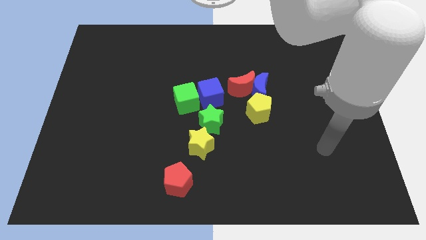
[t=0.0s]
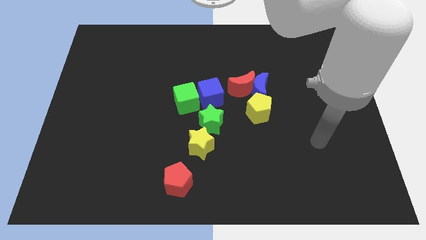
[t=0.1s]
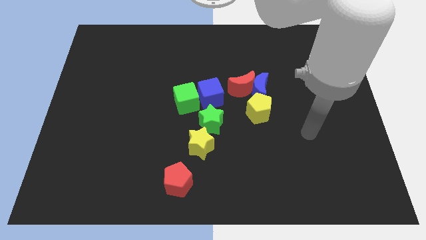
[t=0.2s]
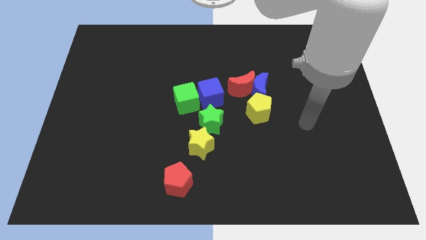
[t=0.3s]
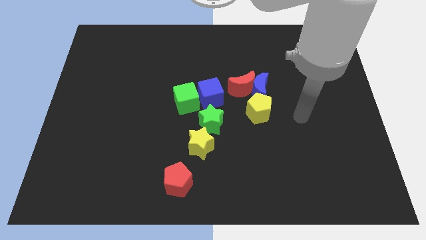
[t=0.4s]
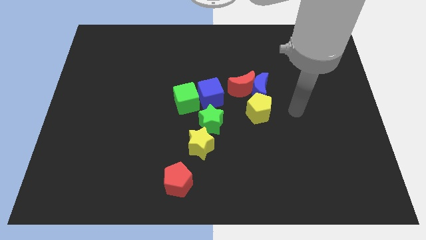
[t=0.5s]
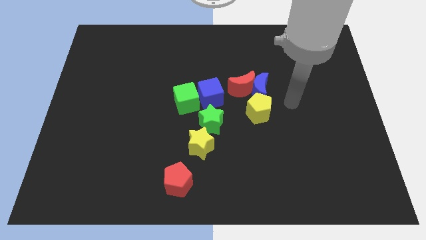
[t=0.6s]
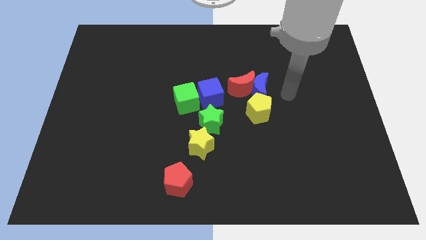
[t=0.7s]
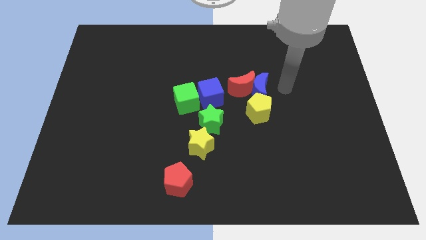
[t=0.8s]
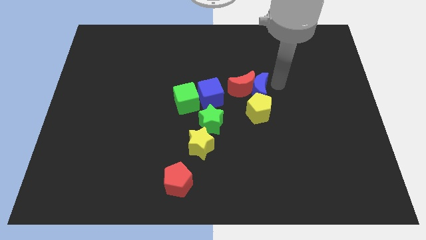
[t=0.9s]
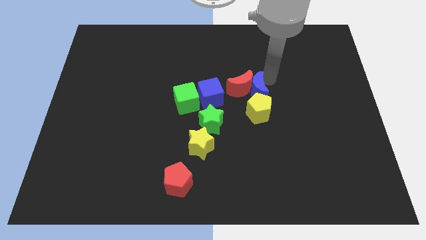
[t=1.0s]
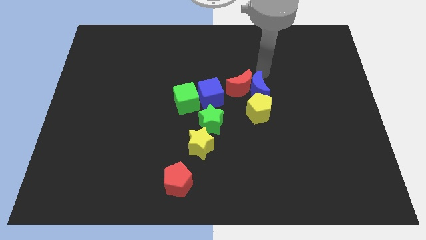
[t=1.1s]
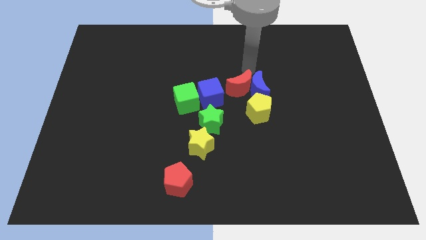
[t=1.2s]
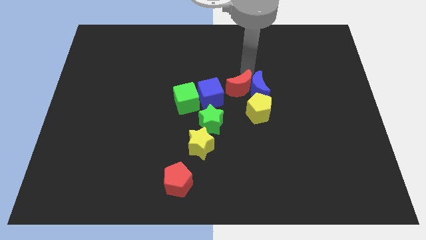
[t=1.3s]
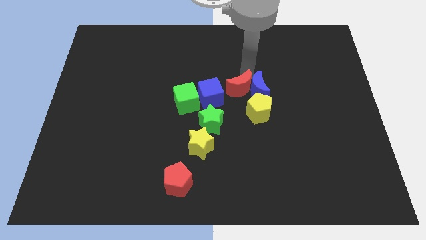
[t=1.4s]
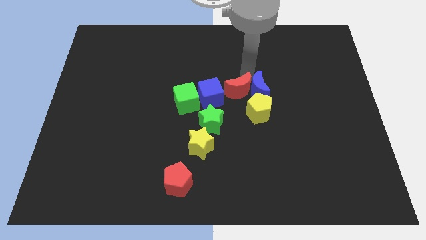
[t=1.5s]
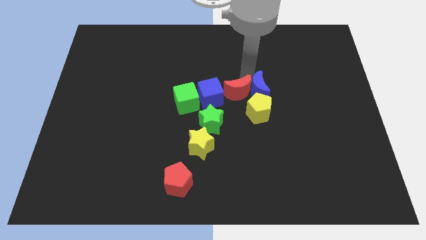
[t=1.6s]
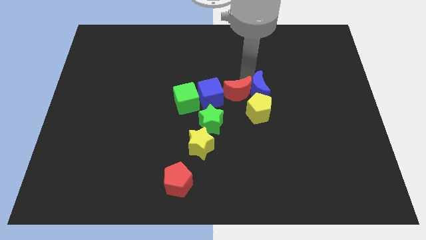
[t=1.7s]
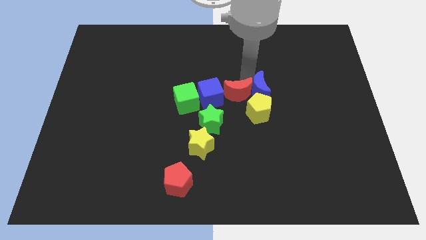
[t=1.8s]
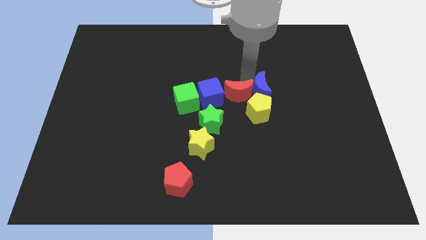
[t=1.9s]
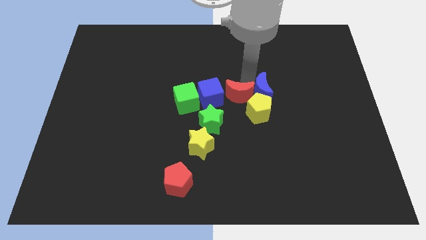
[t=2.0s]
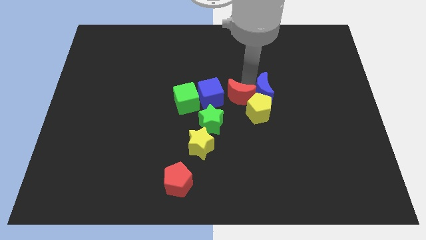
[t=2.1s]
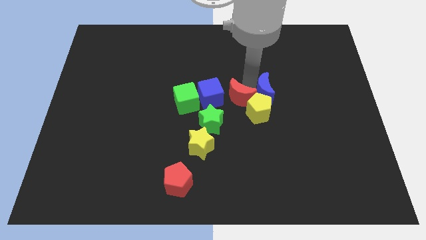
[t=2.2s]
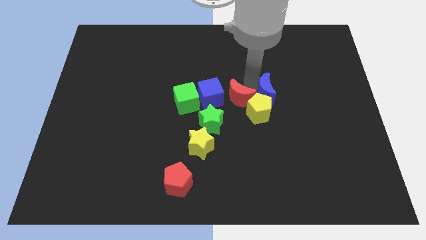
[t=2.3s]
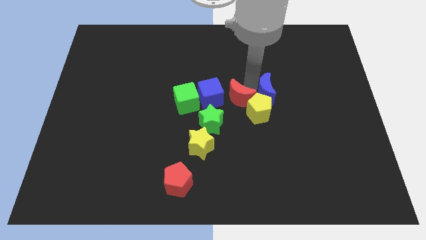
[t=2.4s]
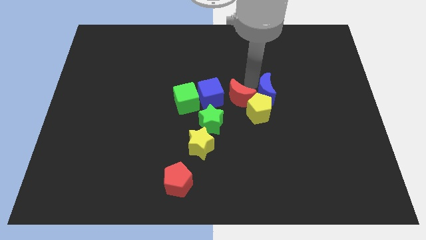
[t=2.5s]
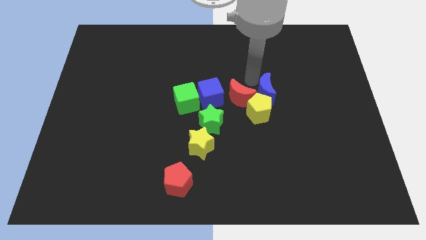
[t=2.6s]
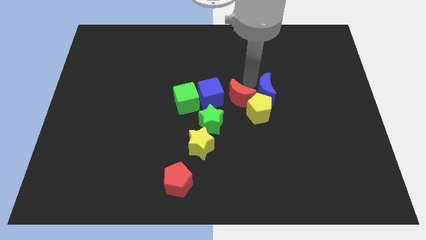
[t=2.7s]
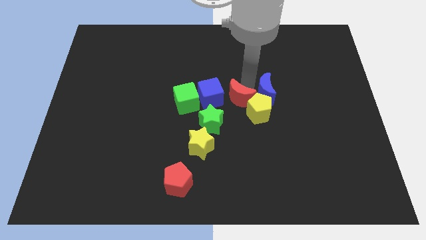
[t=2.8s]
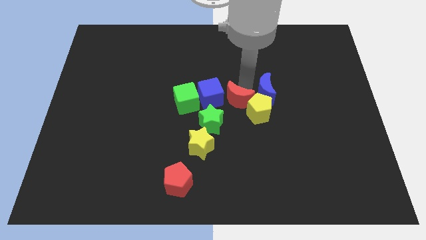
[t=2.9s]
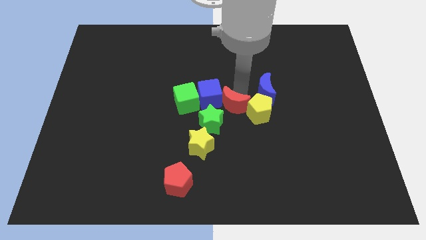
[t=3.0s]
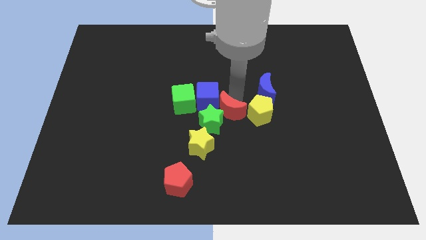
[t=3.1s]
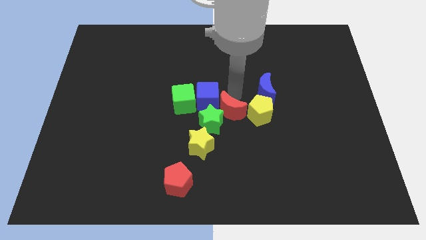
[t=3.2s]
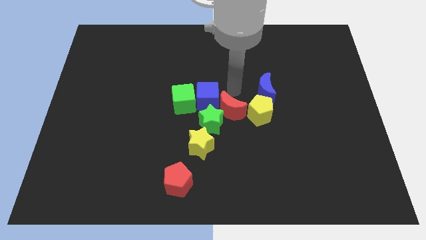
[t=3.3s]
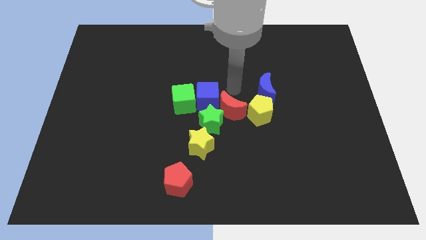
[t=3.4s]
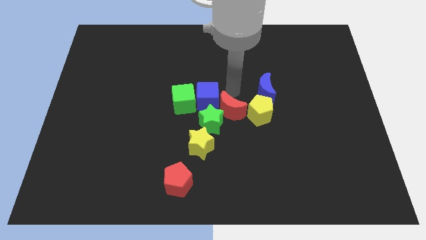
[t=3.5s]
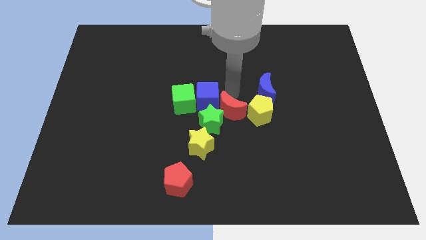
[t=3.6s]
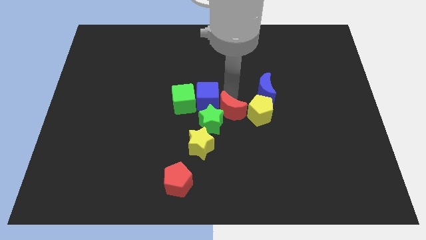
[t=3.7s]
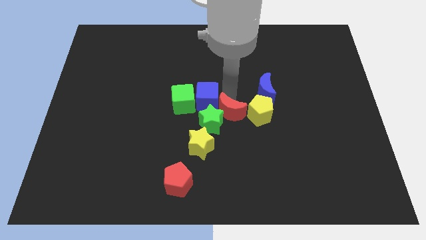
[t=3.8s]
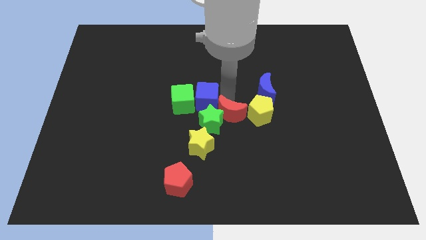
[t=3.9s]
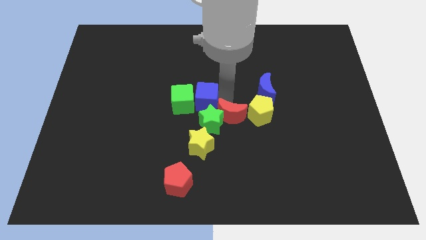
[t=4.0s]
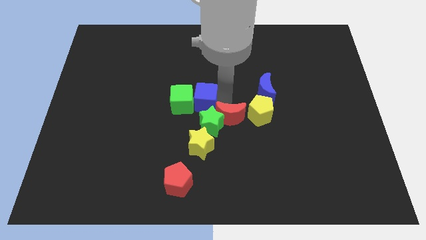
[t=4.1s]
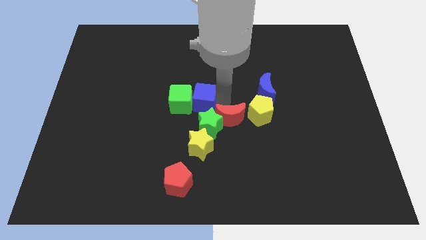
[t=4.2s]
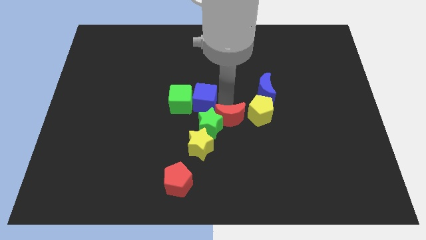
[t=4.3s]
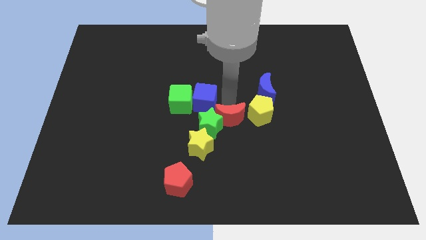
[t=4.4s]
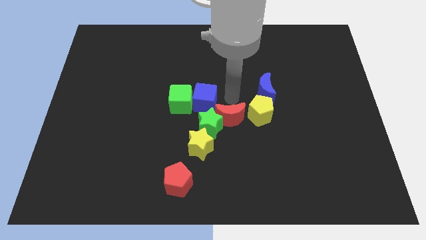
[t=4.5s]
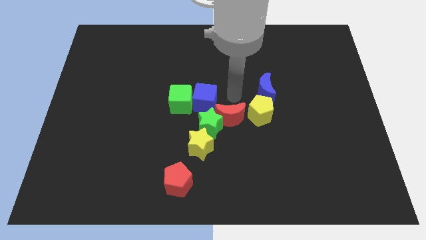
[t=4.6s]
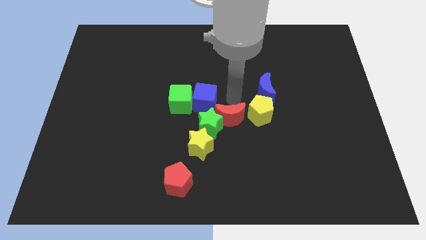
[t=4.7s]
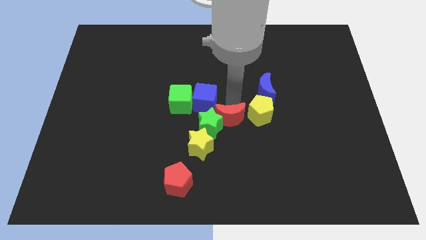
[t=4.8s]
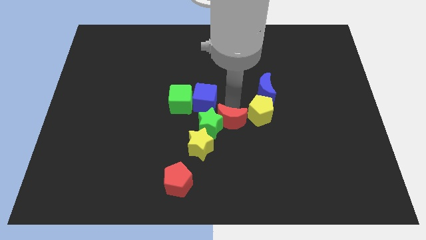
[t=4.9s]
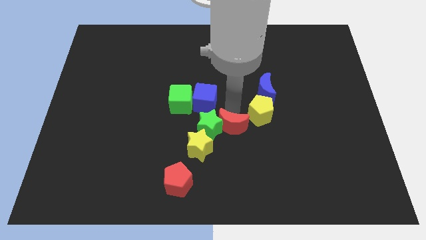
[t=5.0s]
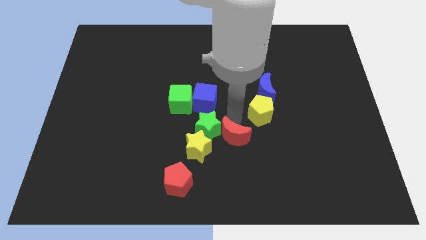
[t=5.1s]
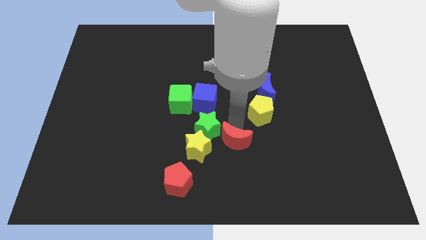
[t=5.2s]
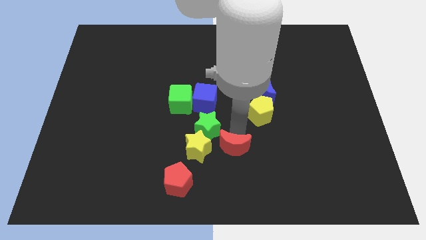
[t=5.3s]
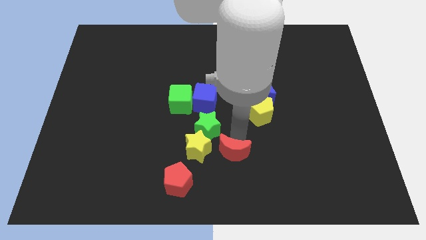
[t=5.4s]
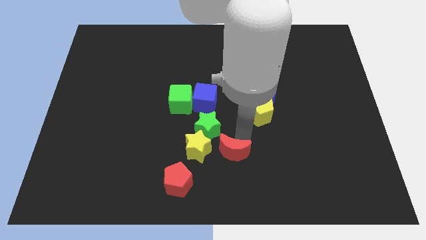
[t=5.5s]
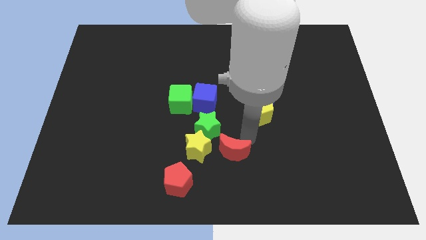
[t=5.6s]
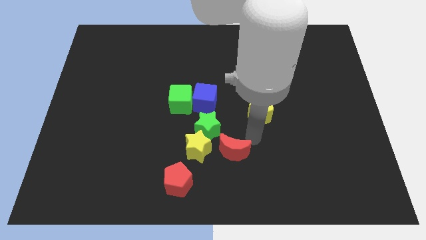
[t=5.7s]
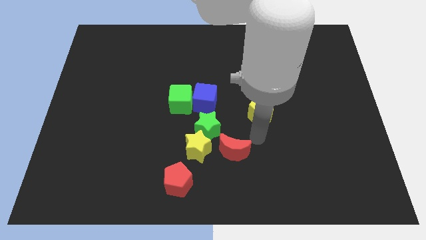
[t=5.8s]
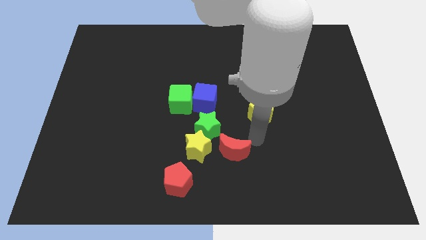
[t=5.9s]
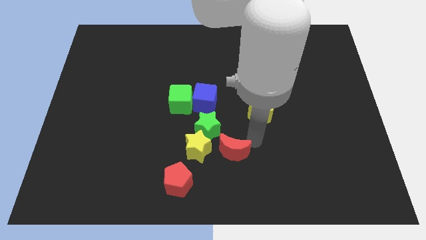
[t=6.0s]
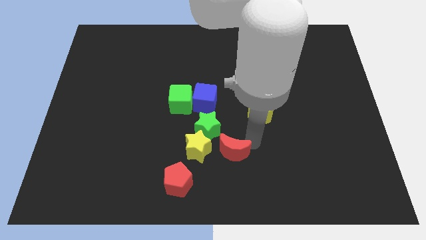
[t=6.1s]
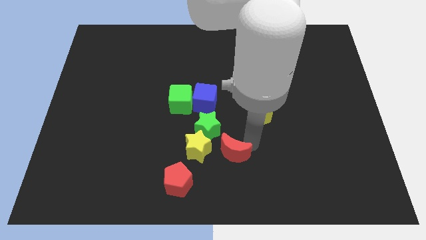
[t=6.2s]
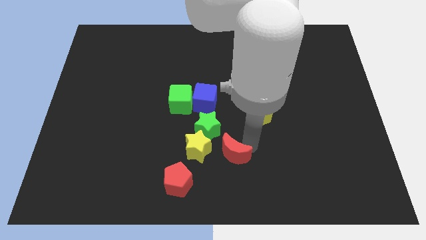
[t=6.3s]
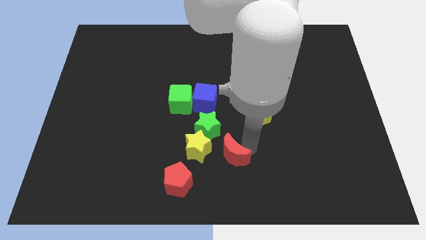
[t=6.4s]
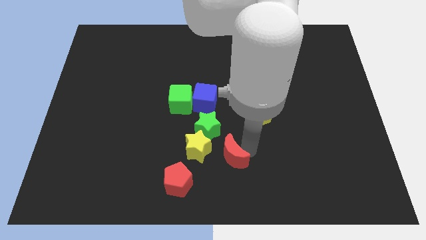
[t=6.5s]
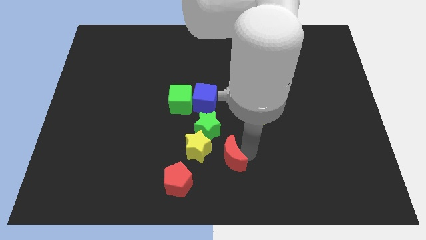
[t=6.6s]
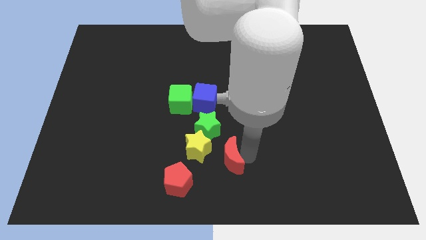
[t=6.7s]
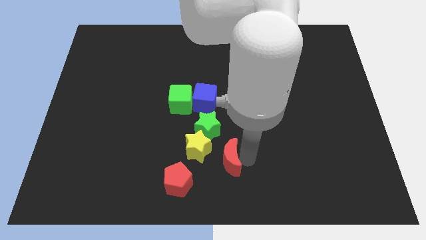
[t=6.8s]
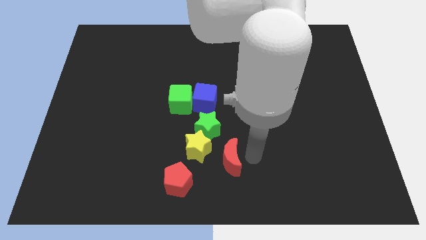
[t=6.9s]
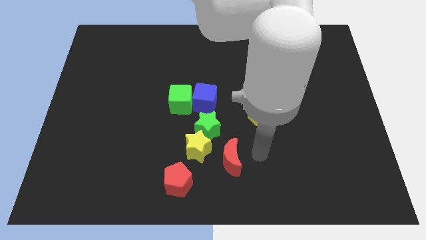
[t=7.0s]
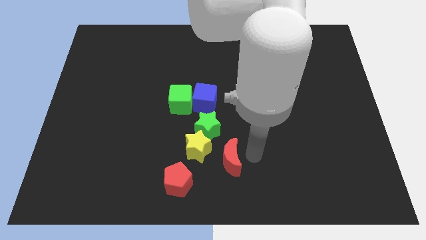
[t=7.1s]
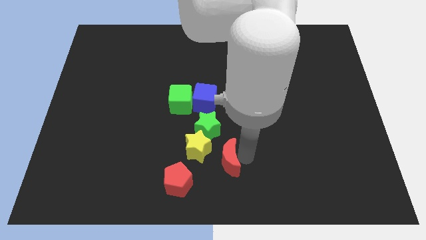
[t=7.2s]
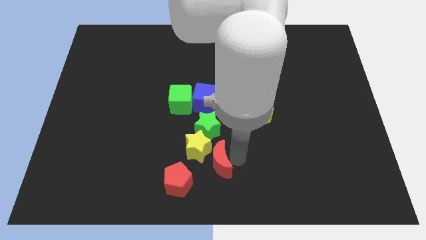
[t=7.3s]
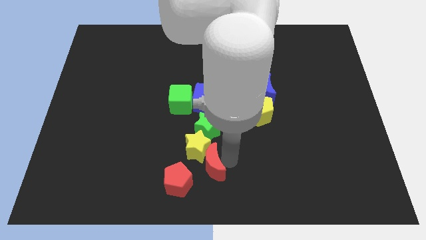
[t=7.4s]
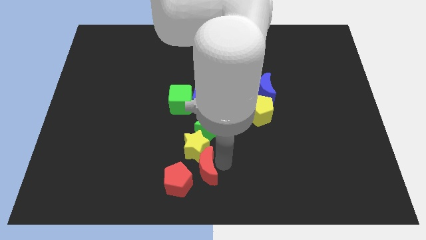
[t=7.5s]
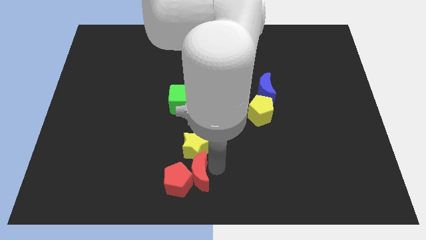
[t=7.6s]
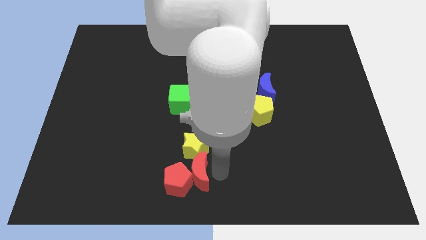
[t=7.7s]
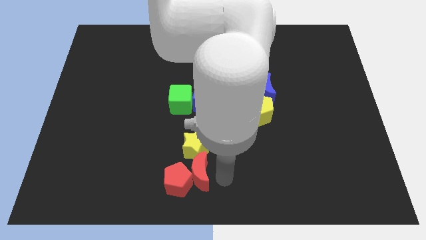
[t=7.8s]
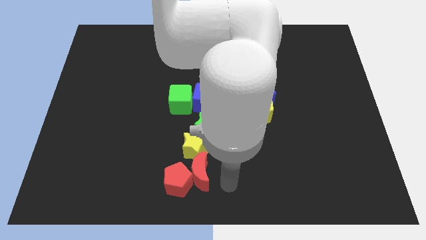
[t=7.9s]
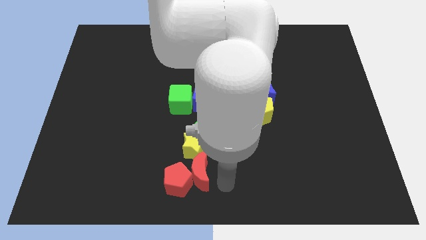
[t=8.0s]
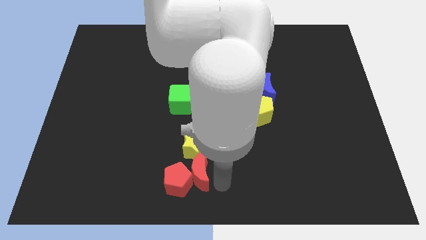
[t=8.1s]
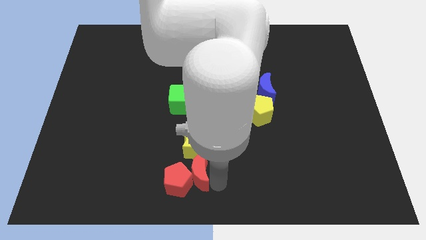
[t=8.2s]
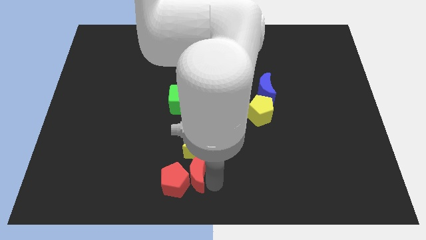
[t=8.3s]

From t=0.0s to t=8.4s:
push the red moon downwards and then left
